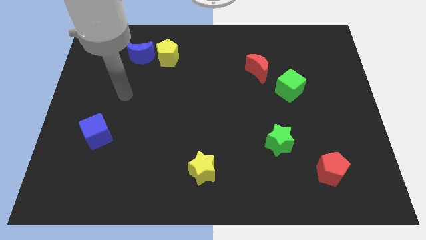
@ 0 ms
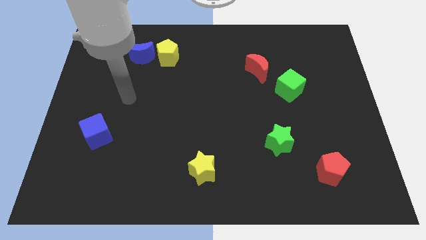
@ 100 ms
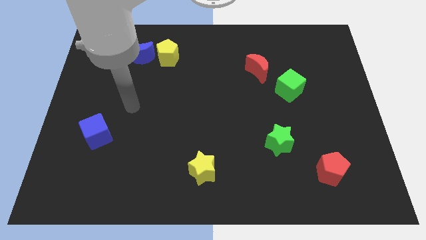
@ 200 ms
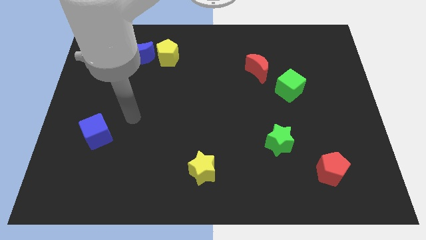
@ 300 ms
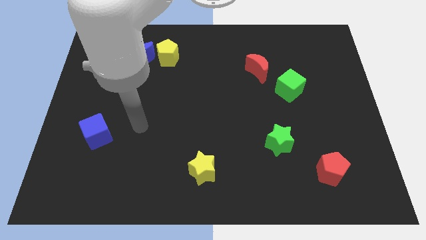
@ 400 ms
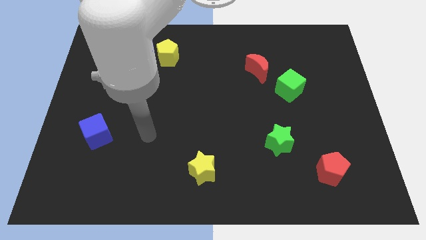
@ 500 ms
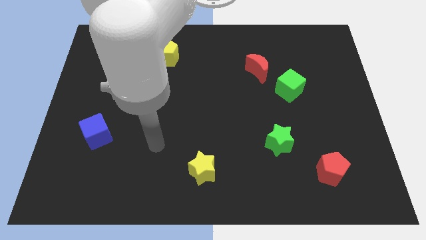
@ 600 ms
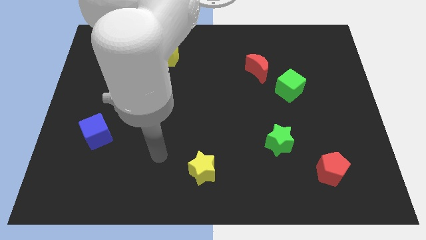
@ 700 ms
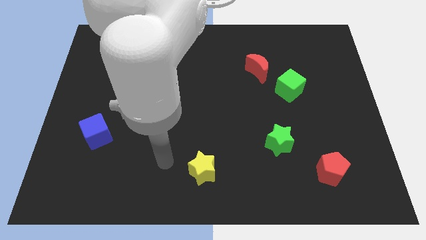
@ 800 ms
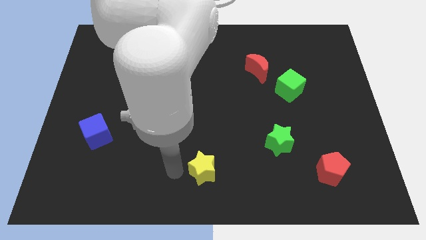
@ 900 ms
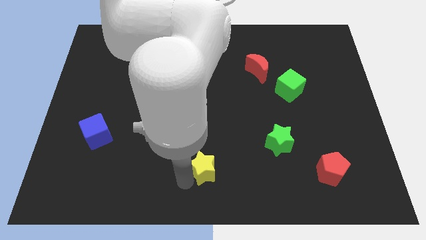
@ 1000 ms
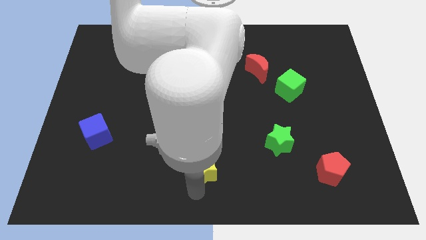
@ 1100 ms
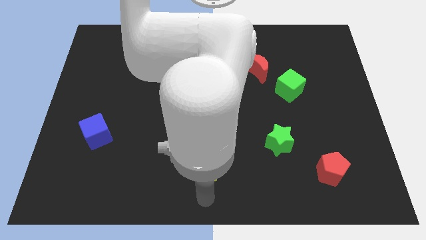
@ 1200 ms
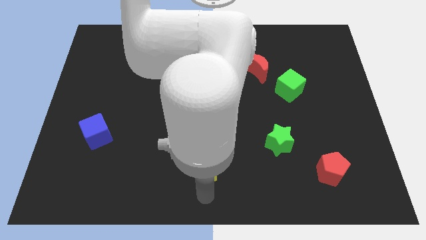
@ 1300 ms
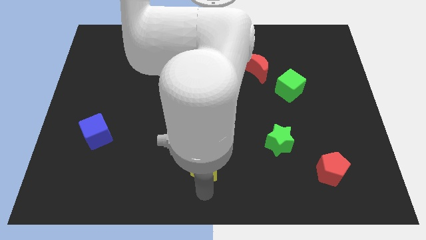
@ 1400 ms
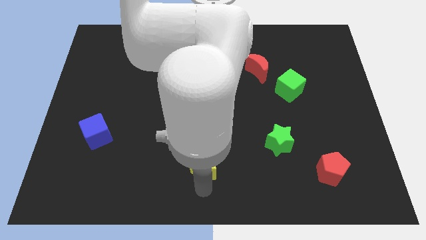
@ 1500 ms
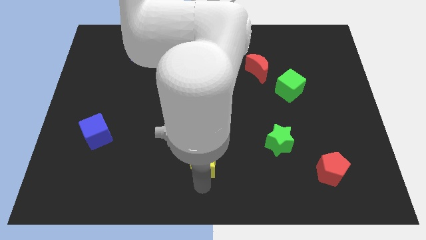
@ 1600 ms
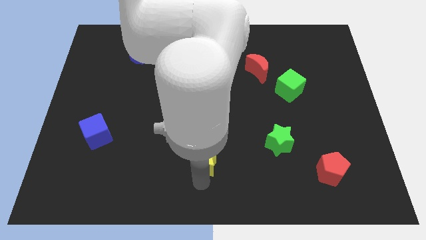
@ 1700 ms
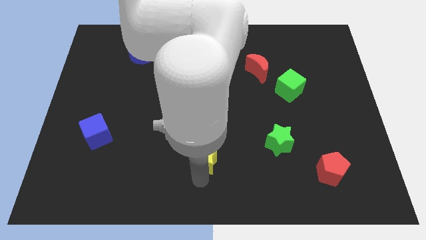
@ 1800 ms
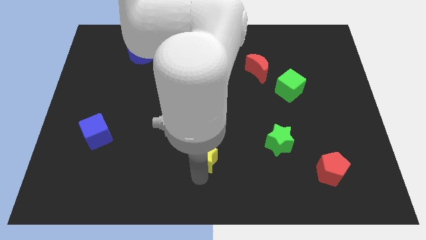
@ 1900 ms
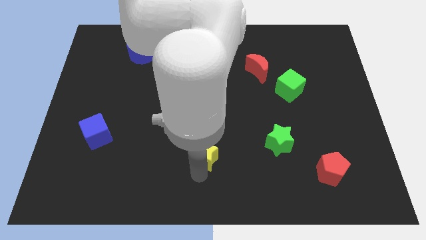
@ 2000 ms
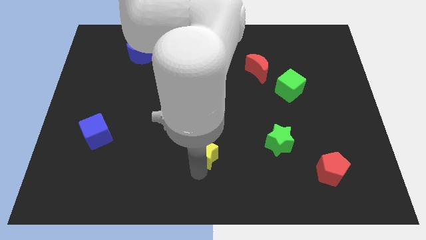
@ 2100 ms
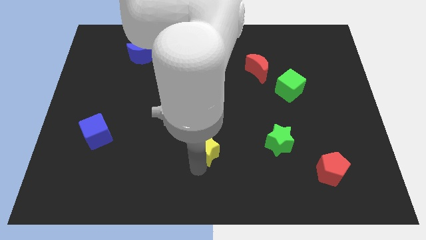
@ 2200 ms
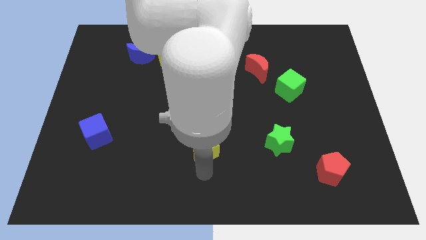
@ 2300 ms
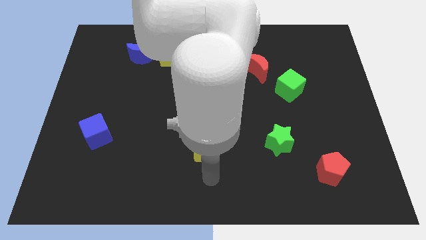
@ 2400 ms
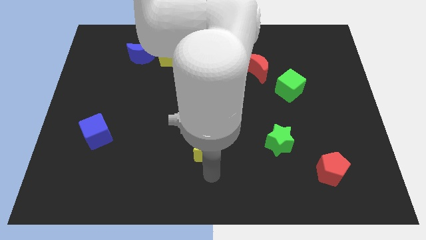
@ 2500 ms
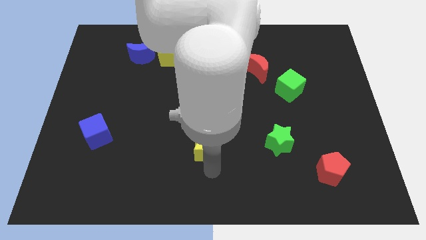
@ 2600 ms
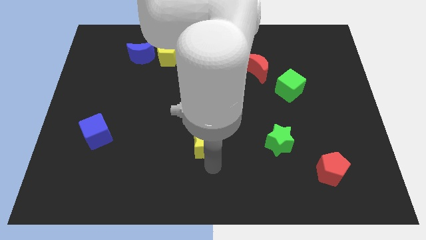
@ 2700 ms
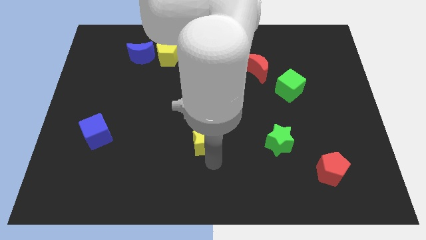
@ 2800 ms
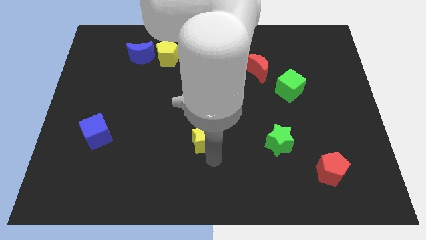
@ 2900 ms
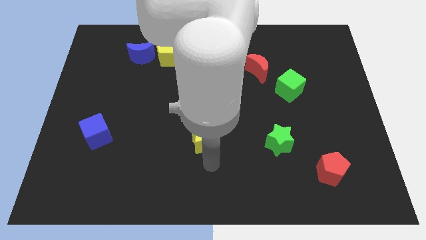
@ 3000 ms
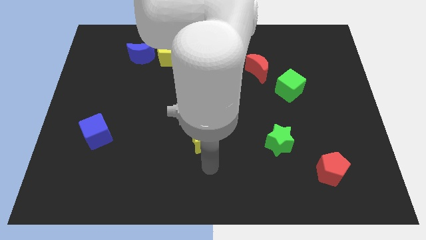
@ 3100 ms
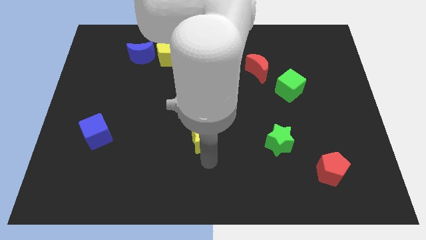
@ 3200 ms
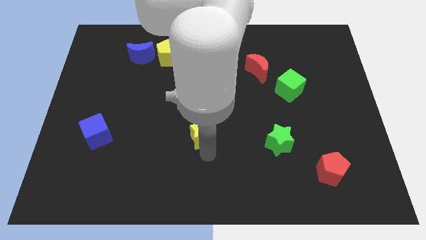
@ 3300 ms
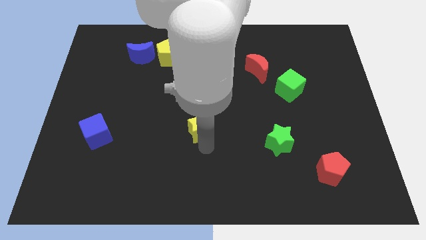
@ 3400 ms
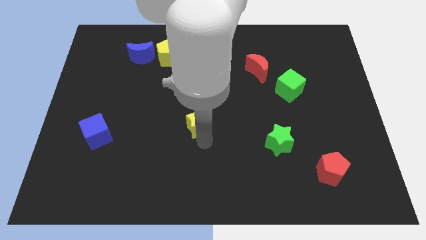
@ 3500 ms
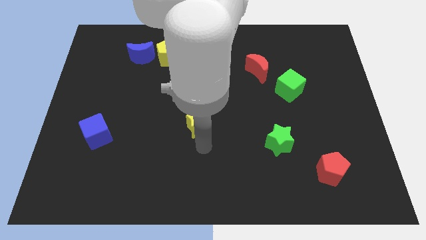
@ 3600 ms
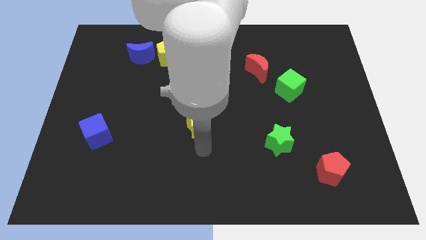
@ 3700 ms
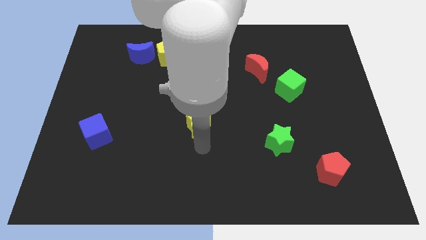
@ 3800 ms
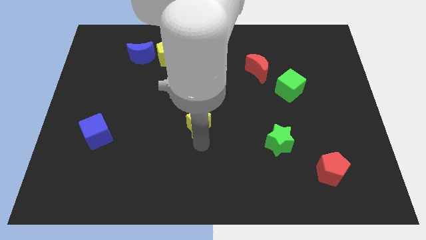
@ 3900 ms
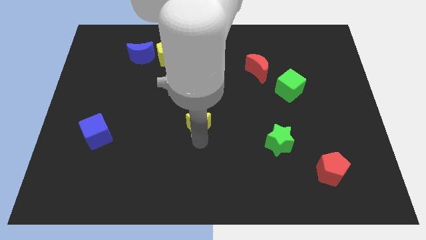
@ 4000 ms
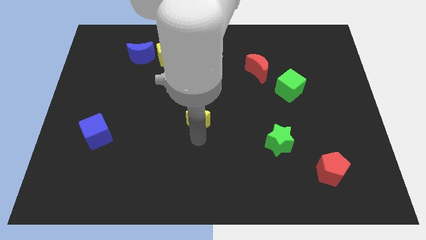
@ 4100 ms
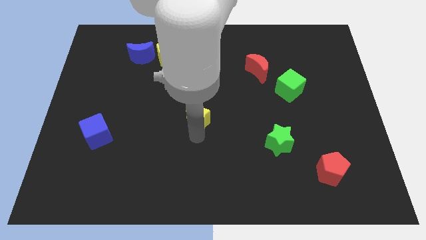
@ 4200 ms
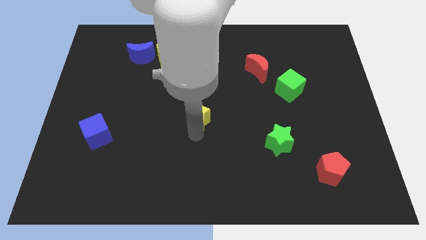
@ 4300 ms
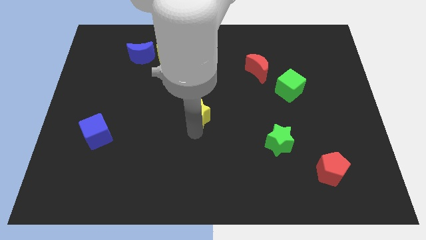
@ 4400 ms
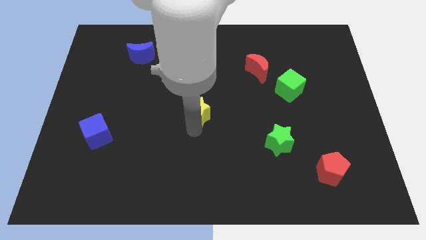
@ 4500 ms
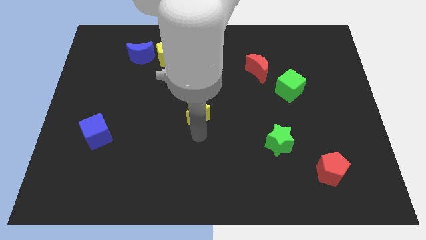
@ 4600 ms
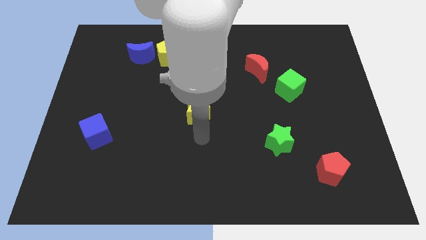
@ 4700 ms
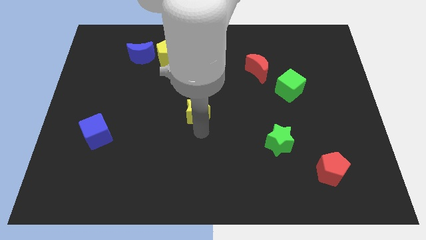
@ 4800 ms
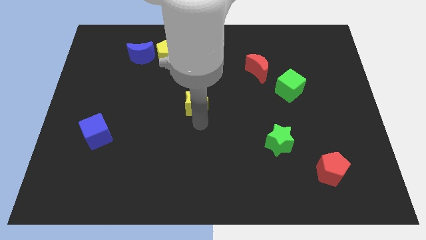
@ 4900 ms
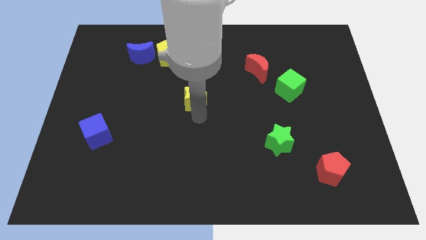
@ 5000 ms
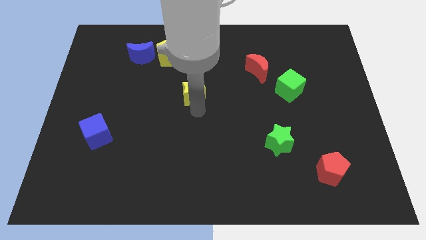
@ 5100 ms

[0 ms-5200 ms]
move the yellow star upwards

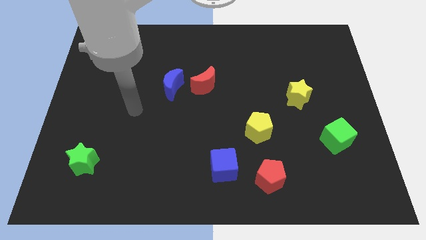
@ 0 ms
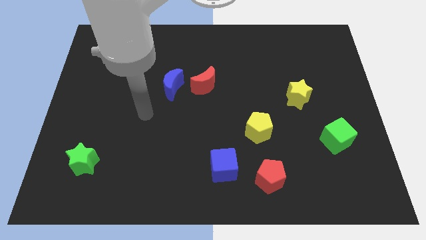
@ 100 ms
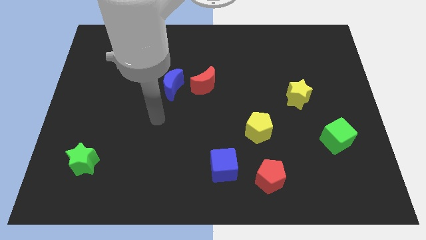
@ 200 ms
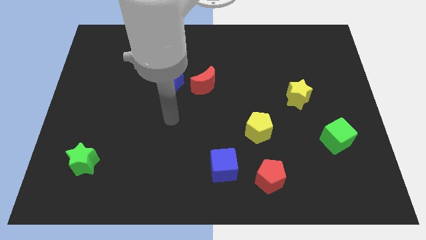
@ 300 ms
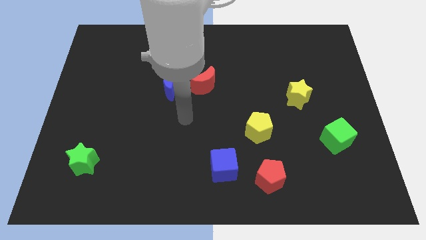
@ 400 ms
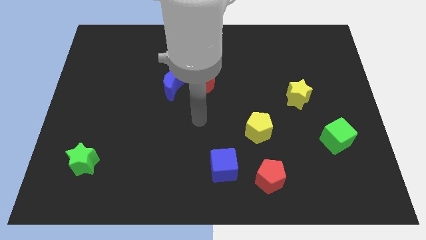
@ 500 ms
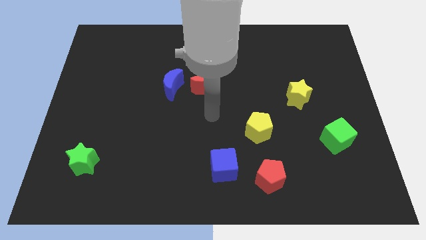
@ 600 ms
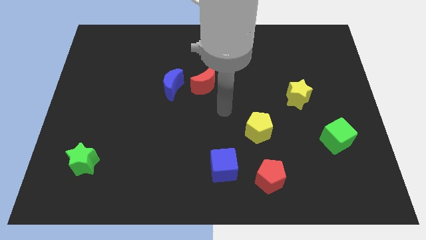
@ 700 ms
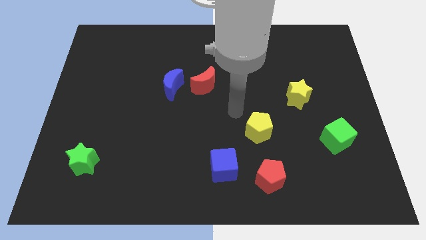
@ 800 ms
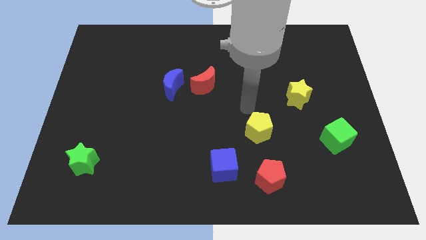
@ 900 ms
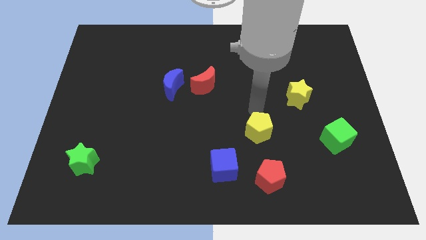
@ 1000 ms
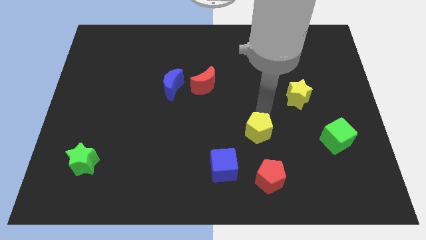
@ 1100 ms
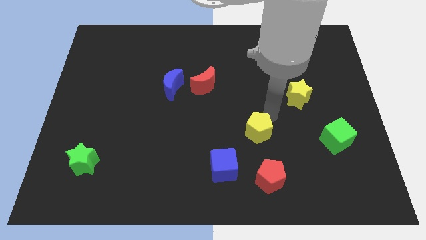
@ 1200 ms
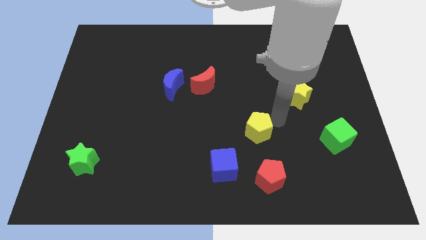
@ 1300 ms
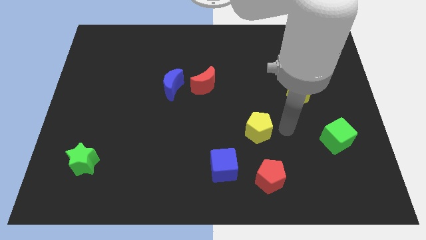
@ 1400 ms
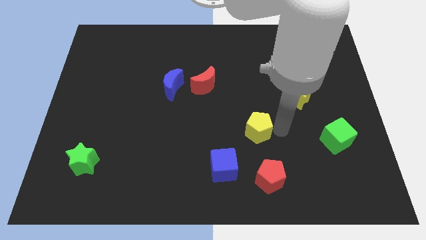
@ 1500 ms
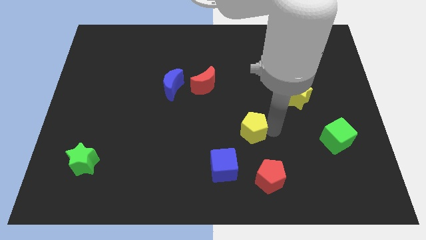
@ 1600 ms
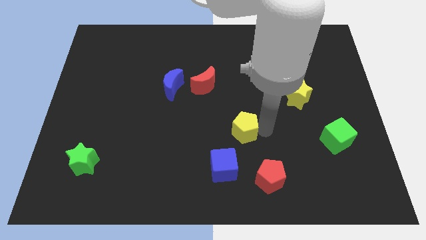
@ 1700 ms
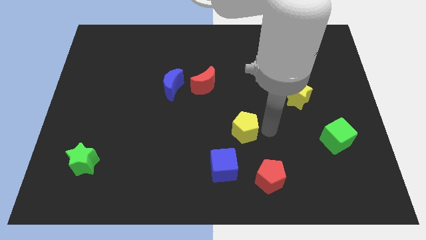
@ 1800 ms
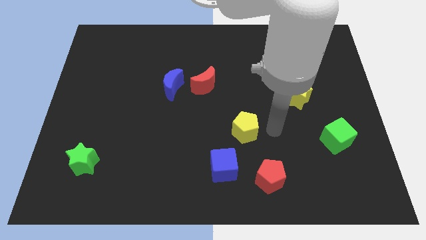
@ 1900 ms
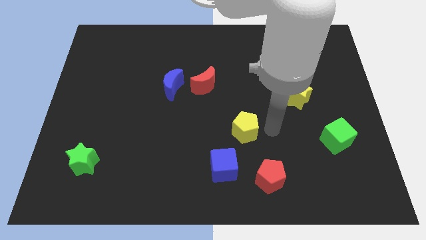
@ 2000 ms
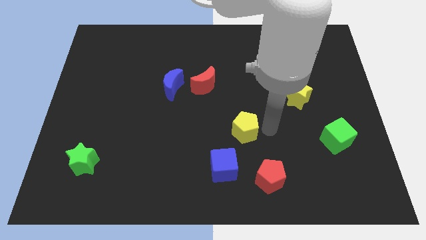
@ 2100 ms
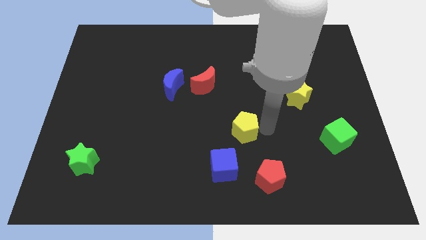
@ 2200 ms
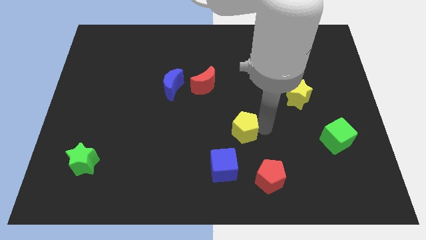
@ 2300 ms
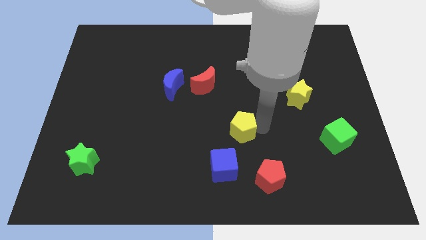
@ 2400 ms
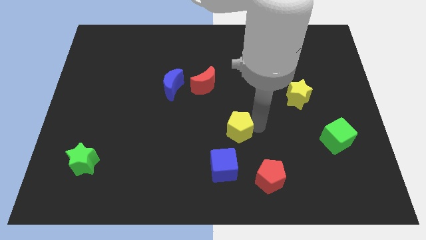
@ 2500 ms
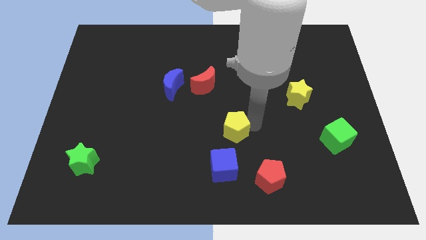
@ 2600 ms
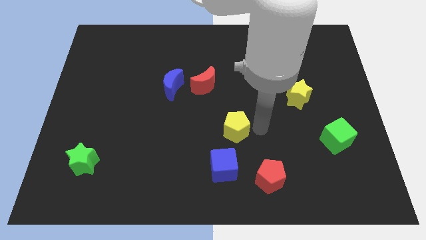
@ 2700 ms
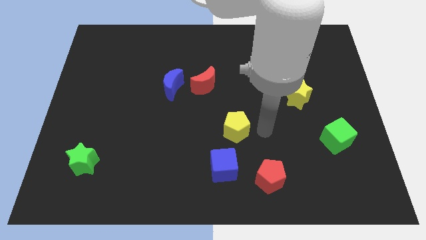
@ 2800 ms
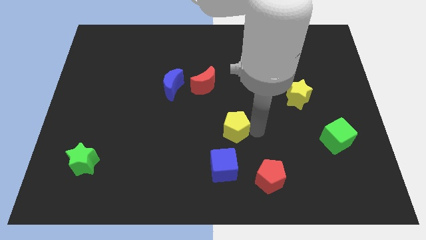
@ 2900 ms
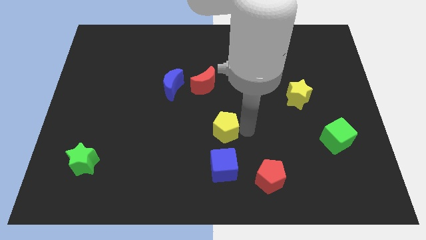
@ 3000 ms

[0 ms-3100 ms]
slightly move the yellow pentagon left

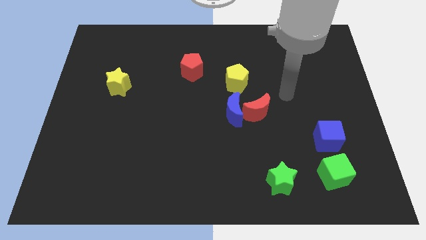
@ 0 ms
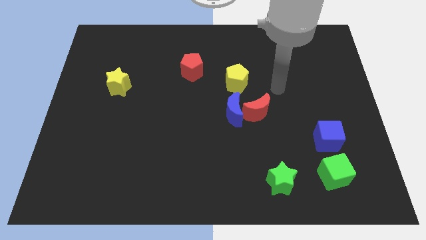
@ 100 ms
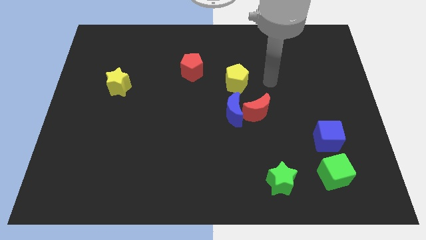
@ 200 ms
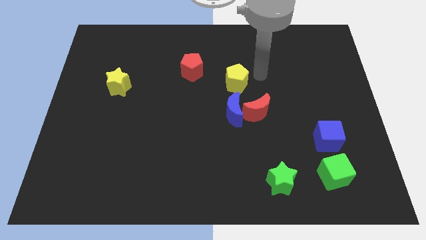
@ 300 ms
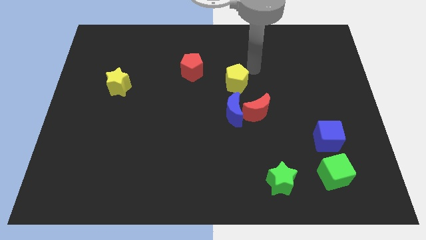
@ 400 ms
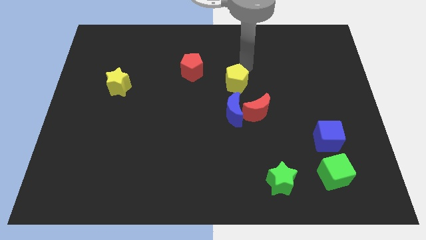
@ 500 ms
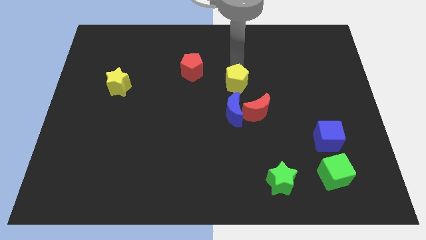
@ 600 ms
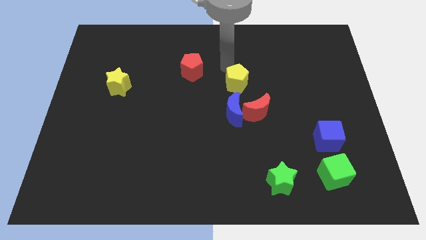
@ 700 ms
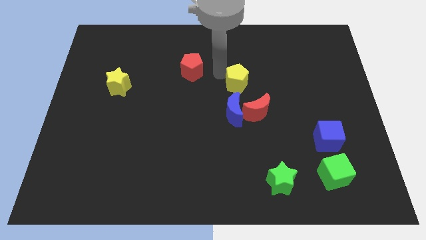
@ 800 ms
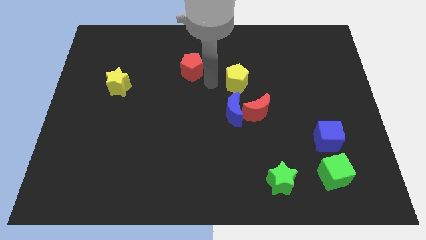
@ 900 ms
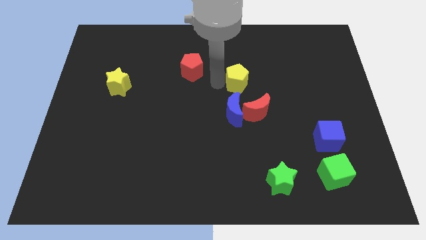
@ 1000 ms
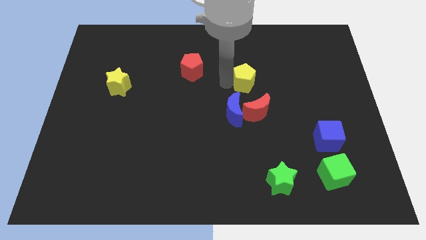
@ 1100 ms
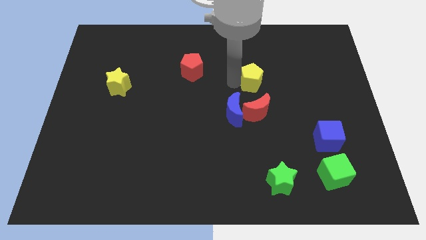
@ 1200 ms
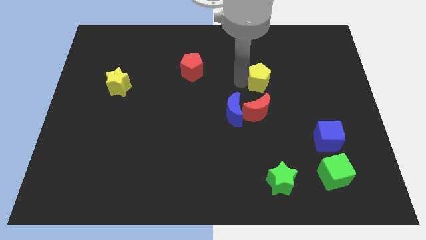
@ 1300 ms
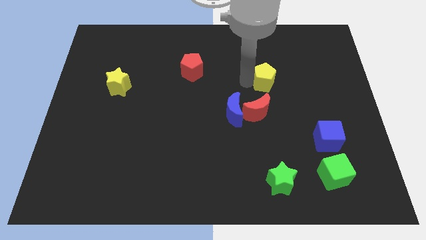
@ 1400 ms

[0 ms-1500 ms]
slightly move the yellow pentagon right
